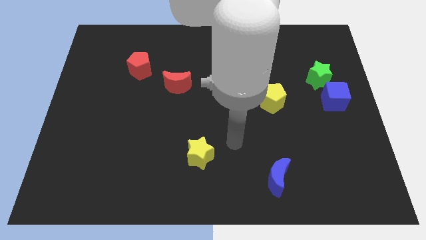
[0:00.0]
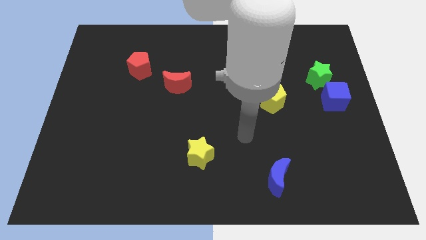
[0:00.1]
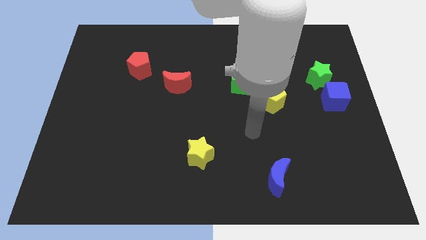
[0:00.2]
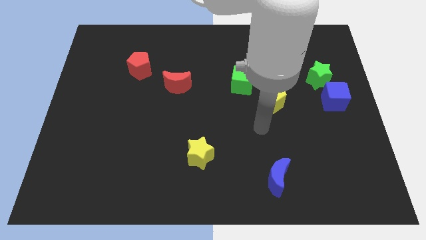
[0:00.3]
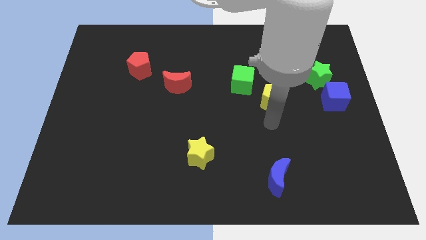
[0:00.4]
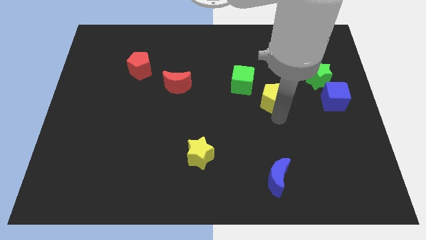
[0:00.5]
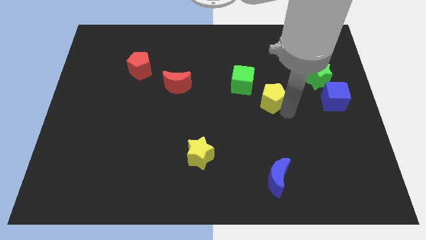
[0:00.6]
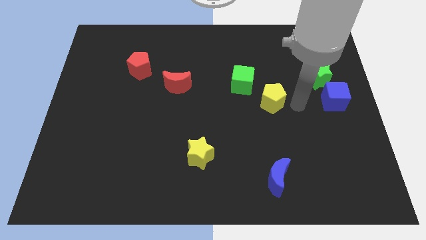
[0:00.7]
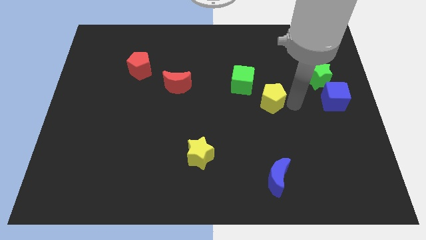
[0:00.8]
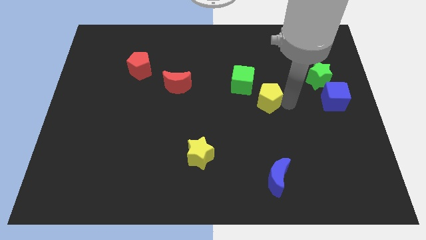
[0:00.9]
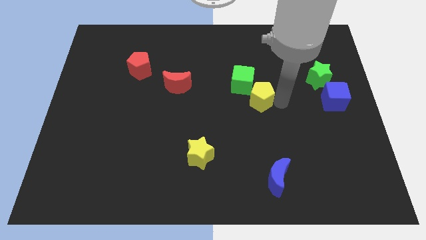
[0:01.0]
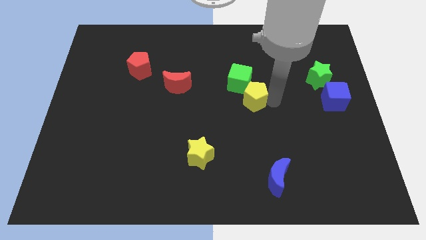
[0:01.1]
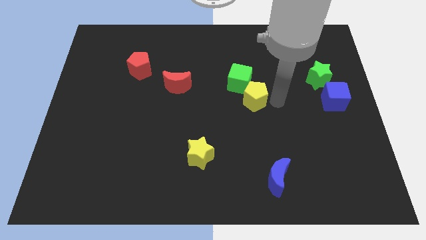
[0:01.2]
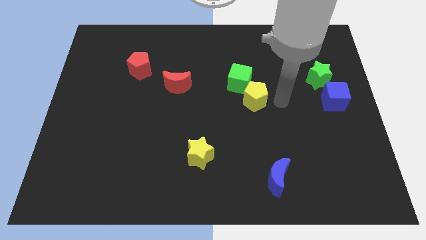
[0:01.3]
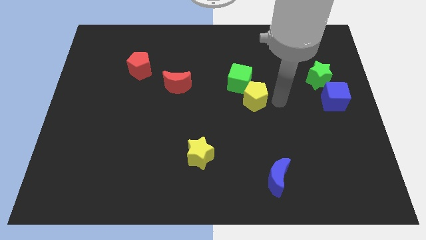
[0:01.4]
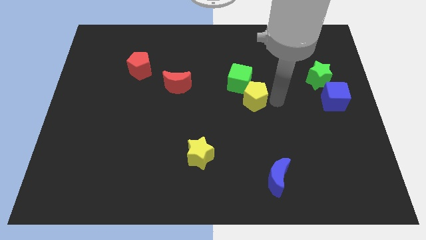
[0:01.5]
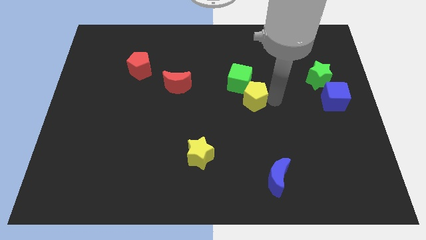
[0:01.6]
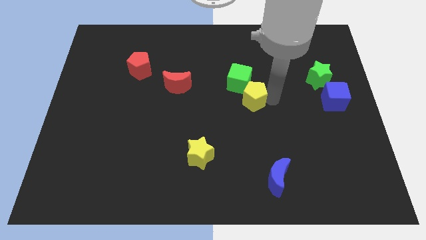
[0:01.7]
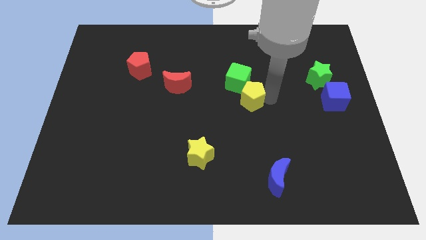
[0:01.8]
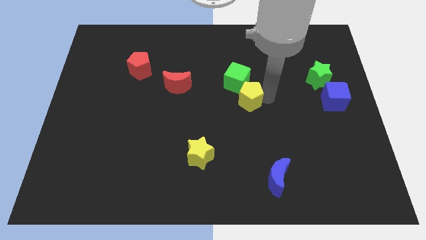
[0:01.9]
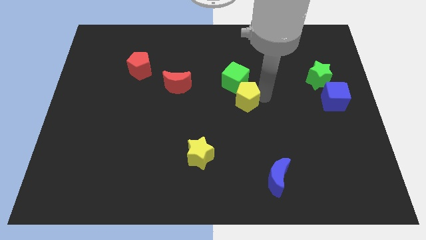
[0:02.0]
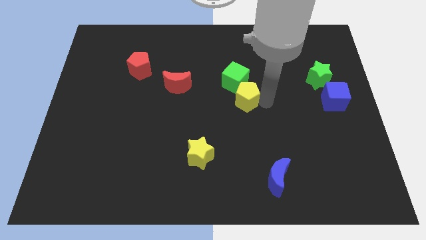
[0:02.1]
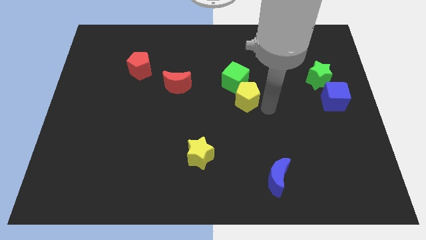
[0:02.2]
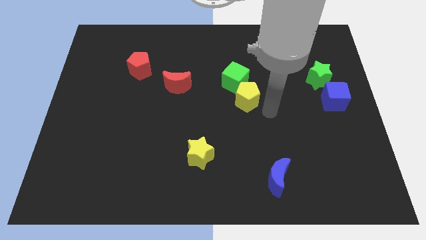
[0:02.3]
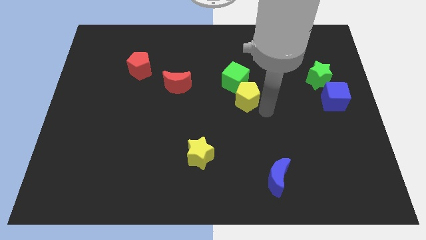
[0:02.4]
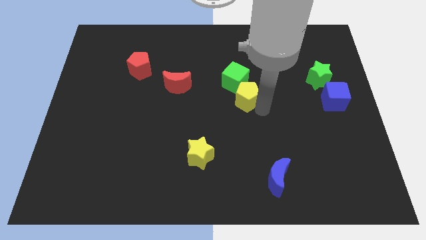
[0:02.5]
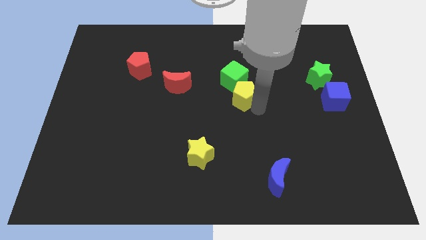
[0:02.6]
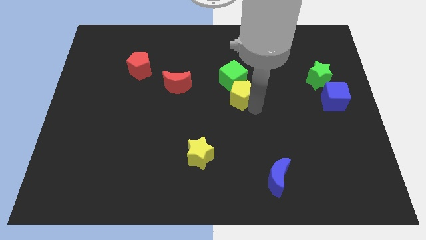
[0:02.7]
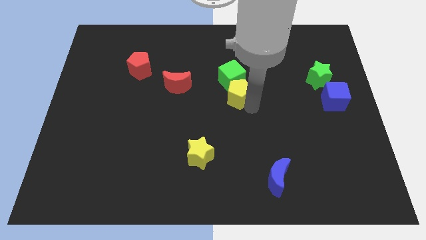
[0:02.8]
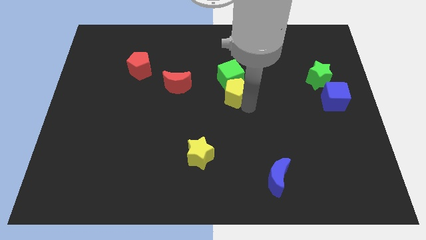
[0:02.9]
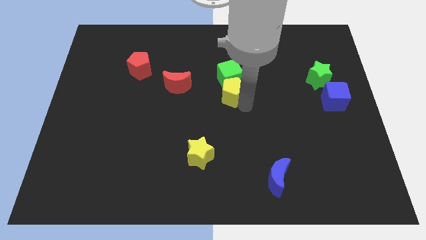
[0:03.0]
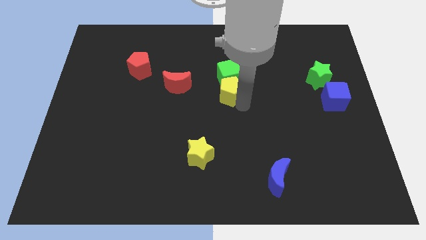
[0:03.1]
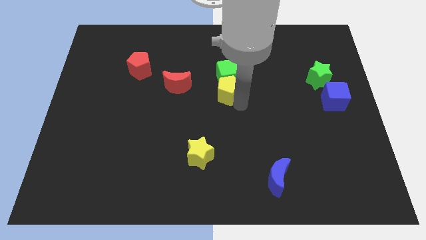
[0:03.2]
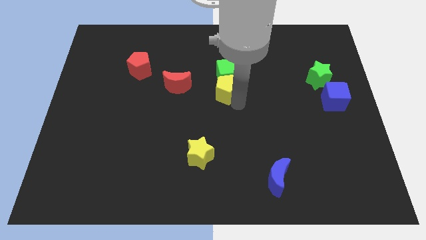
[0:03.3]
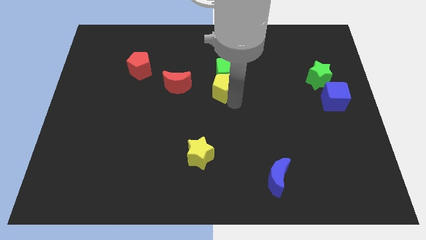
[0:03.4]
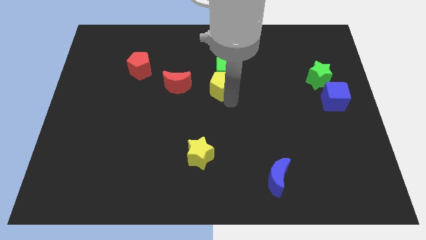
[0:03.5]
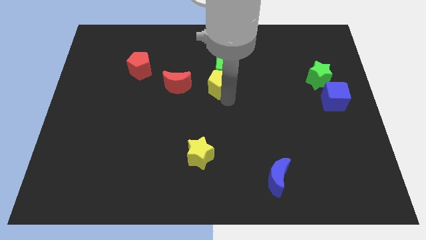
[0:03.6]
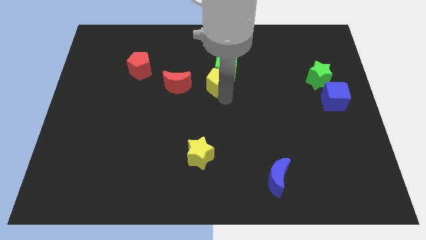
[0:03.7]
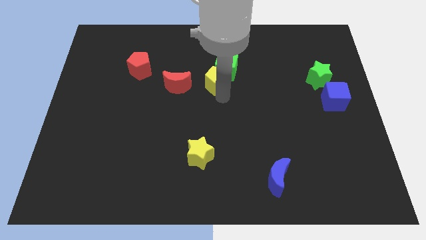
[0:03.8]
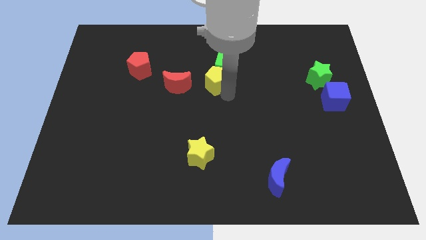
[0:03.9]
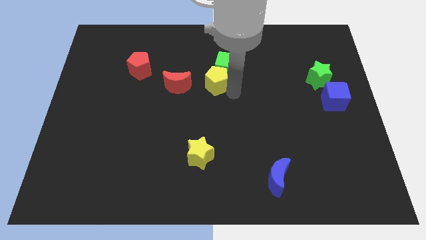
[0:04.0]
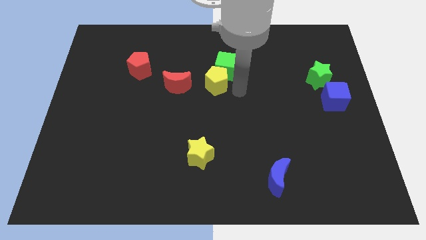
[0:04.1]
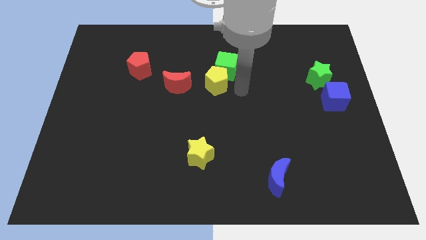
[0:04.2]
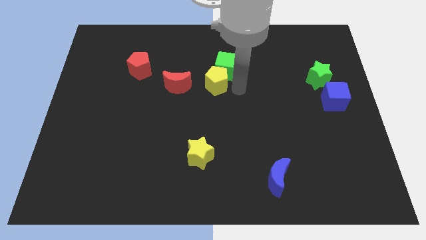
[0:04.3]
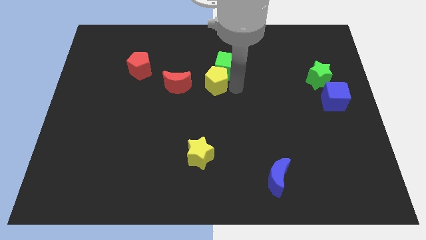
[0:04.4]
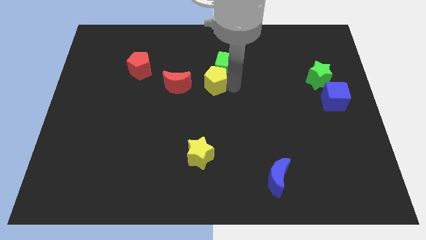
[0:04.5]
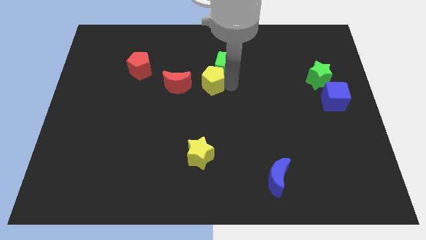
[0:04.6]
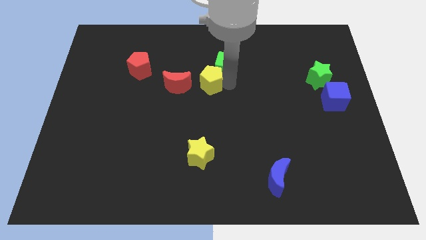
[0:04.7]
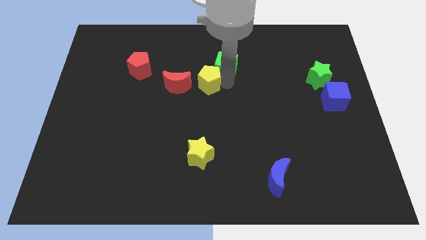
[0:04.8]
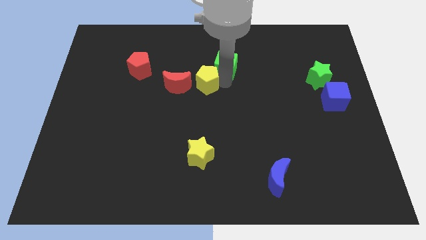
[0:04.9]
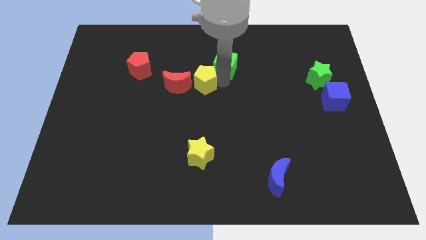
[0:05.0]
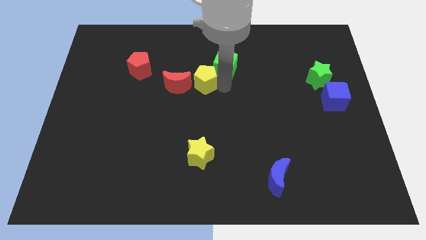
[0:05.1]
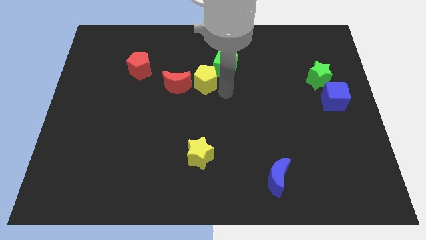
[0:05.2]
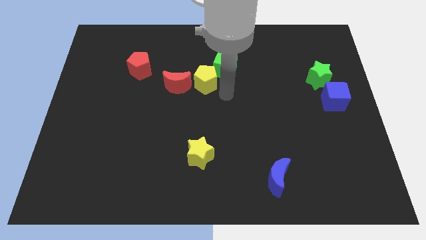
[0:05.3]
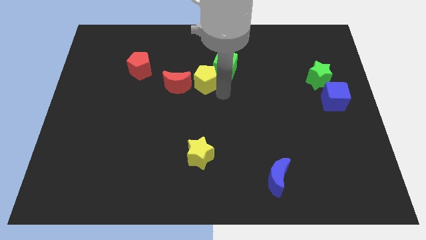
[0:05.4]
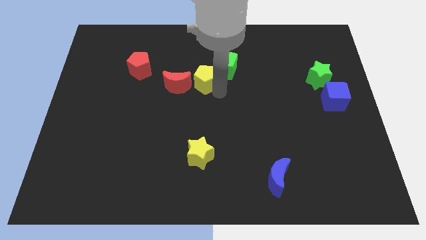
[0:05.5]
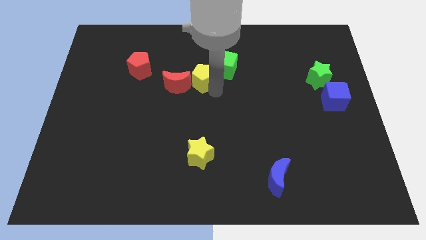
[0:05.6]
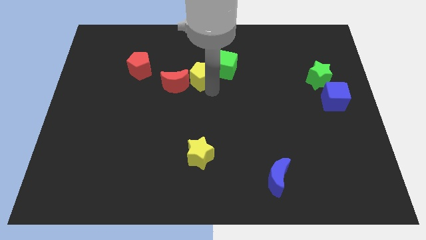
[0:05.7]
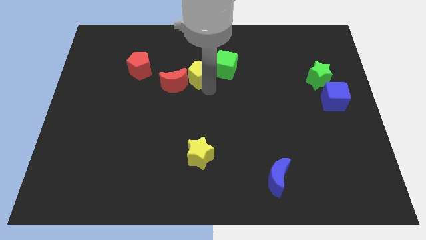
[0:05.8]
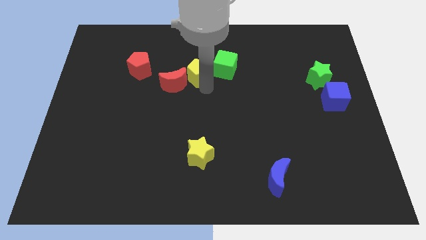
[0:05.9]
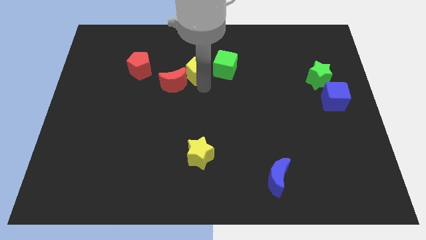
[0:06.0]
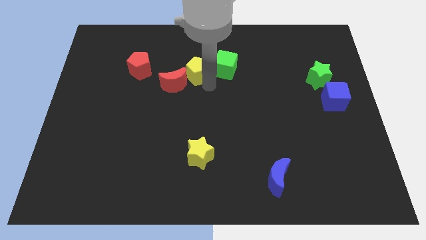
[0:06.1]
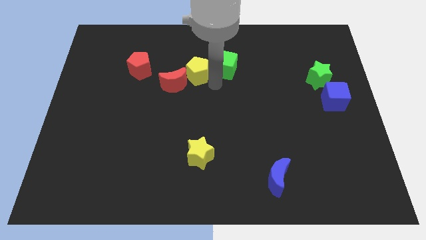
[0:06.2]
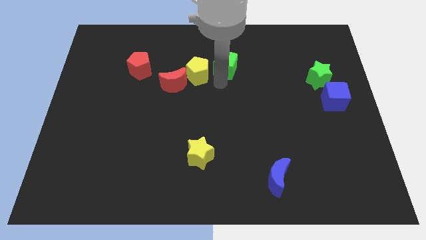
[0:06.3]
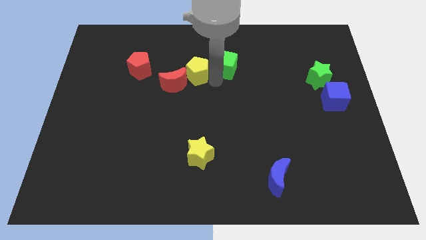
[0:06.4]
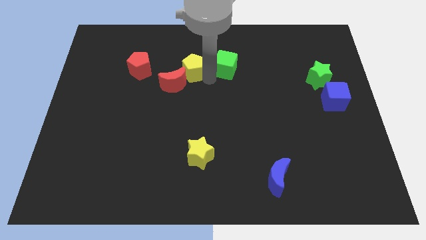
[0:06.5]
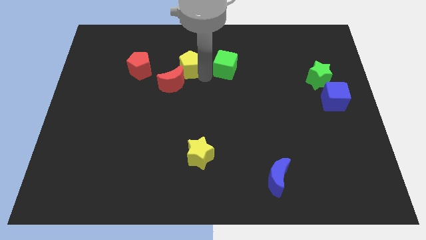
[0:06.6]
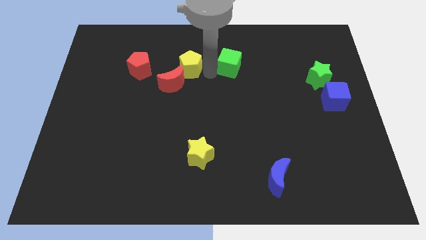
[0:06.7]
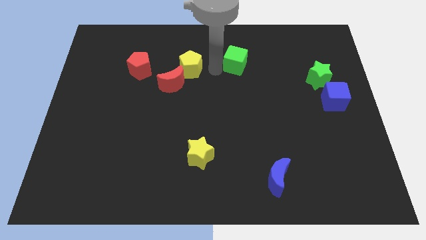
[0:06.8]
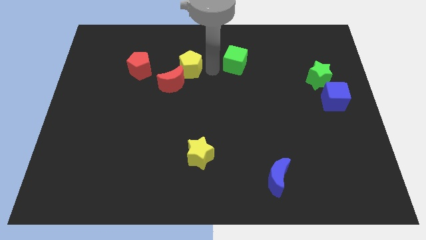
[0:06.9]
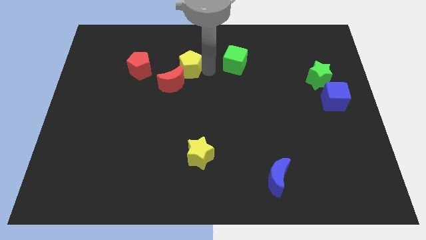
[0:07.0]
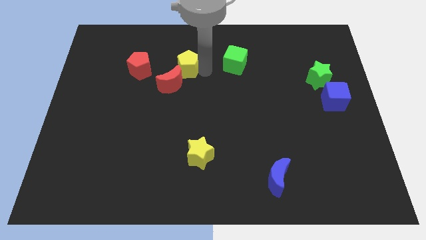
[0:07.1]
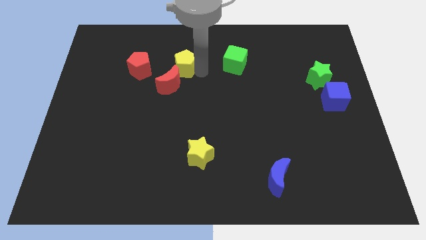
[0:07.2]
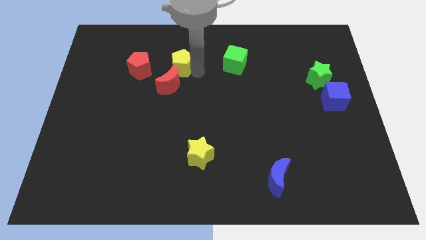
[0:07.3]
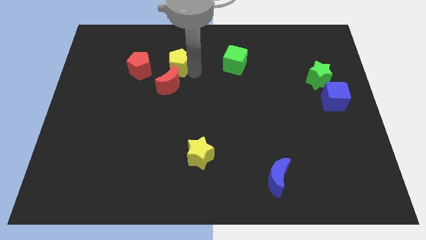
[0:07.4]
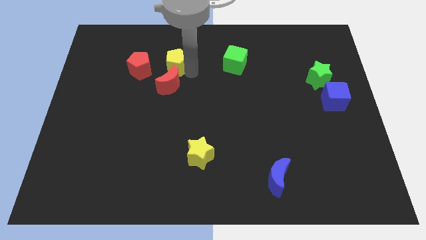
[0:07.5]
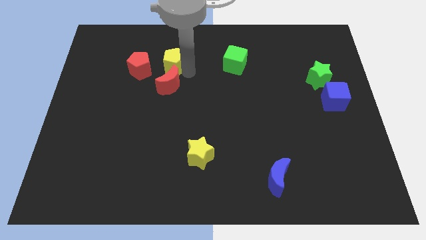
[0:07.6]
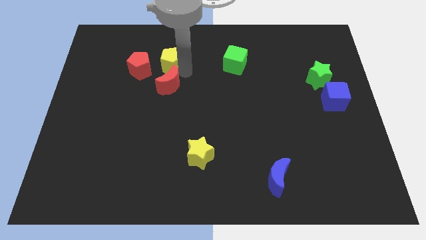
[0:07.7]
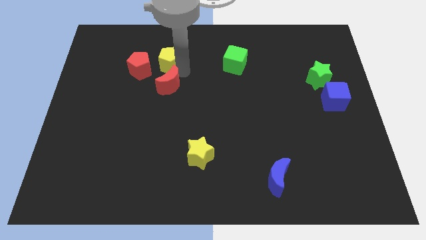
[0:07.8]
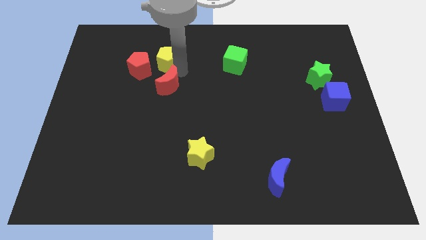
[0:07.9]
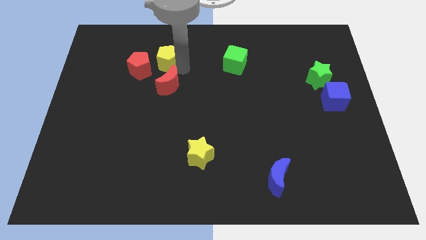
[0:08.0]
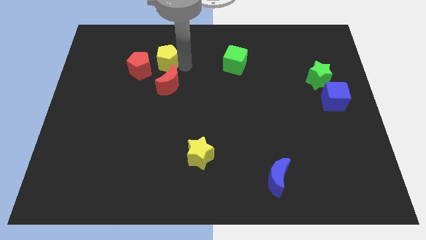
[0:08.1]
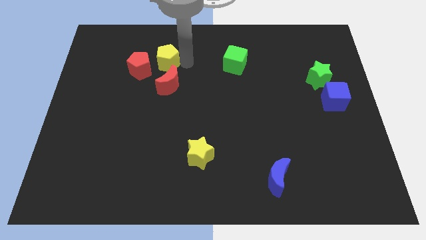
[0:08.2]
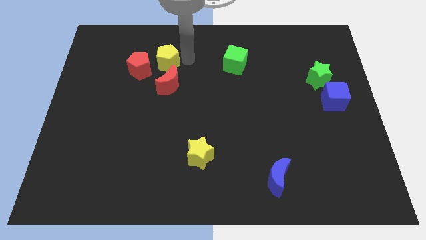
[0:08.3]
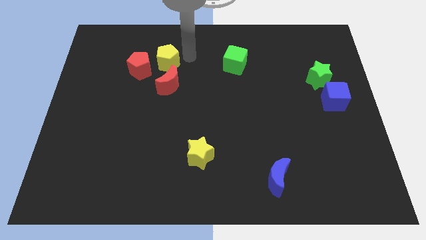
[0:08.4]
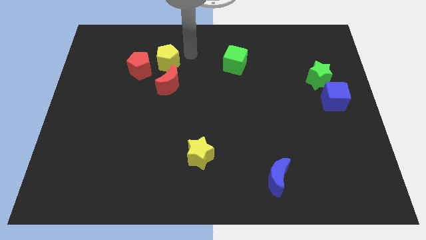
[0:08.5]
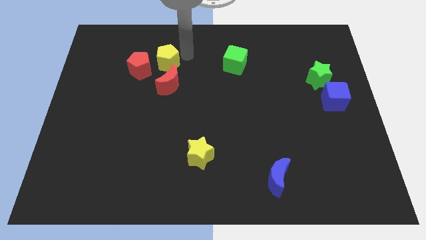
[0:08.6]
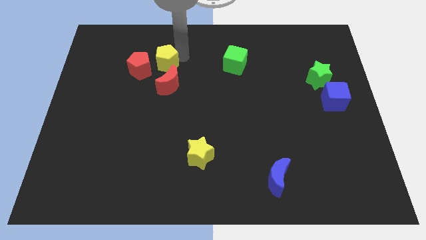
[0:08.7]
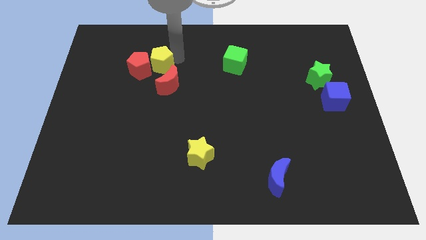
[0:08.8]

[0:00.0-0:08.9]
put the yellow pentagon next to the red pentagon
